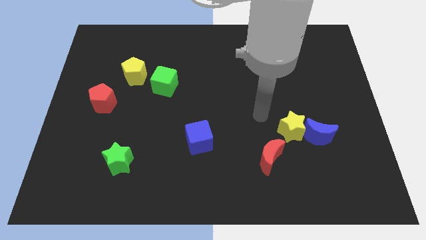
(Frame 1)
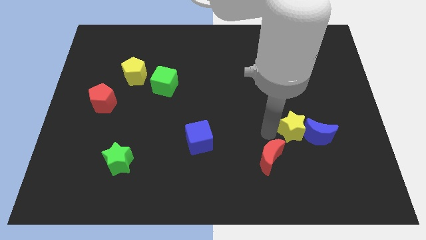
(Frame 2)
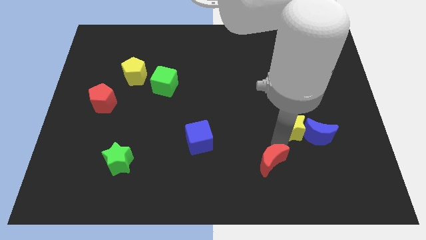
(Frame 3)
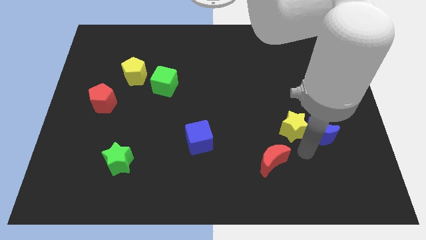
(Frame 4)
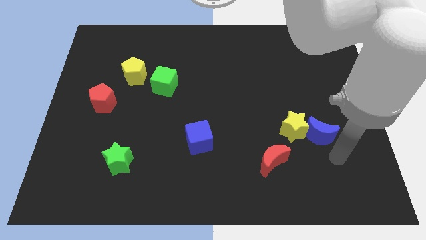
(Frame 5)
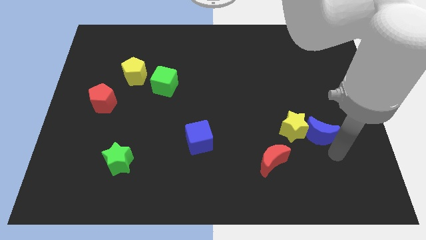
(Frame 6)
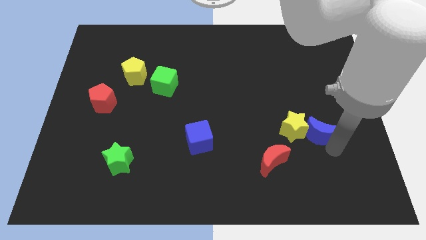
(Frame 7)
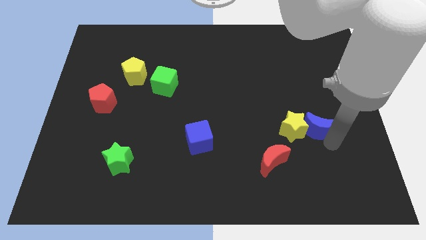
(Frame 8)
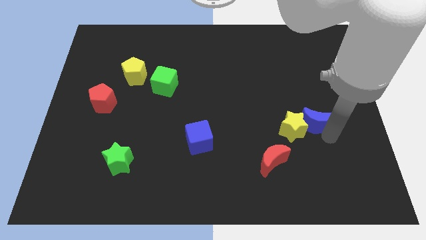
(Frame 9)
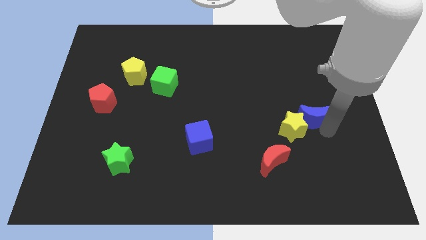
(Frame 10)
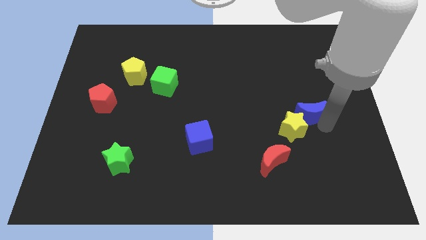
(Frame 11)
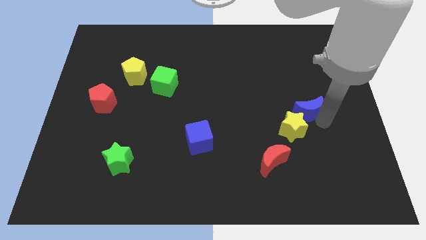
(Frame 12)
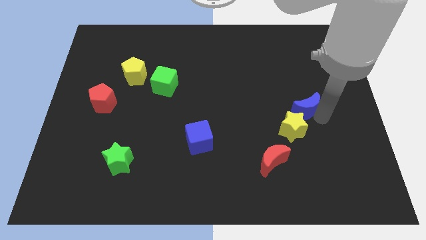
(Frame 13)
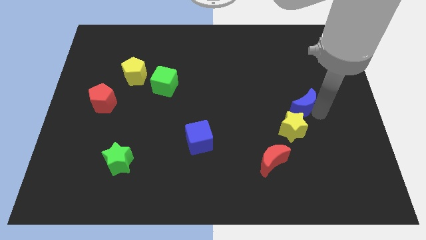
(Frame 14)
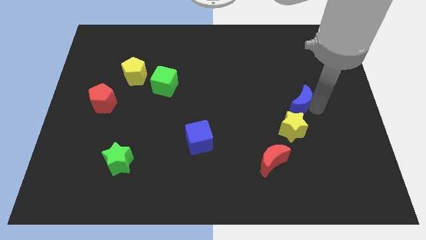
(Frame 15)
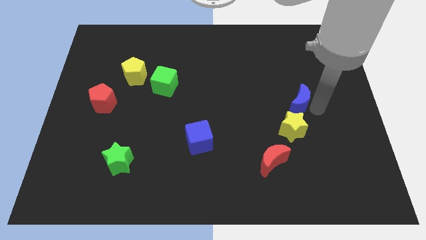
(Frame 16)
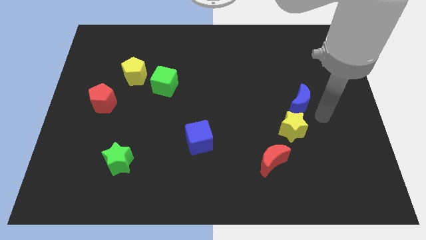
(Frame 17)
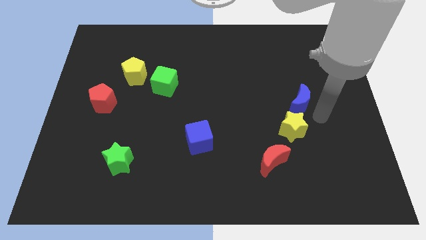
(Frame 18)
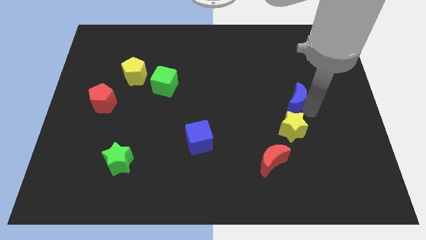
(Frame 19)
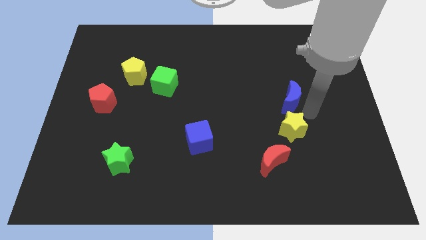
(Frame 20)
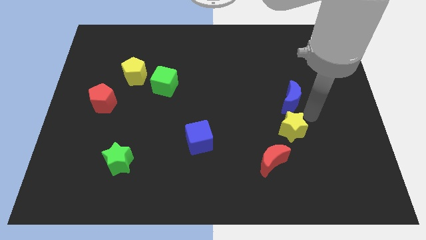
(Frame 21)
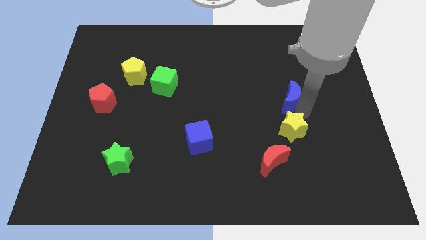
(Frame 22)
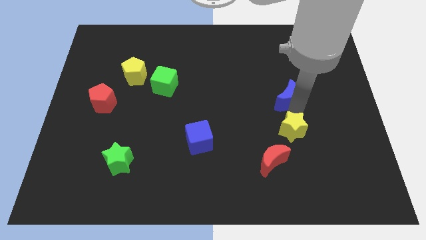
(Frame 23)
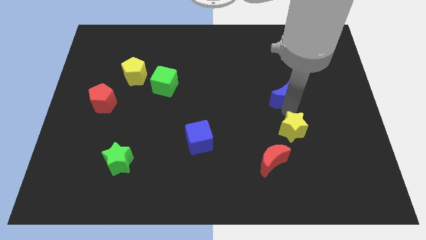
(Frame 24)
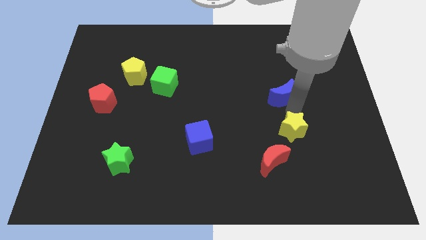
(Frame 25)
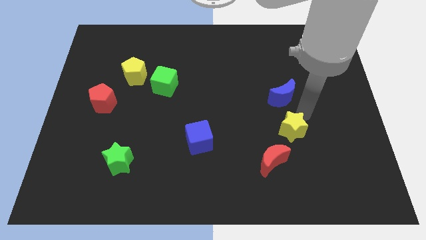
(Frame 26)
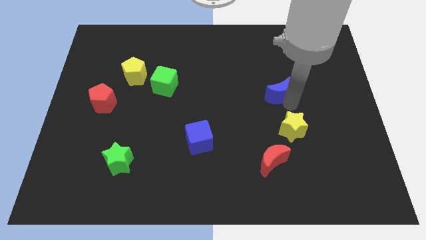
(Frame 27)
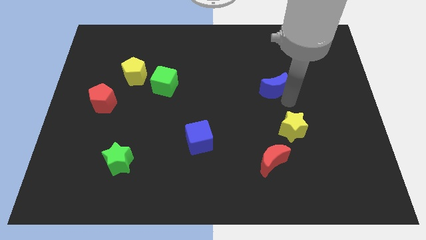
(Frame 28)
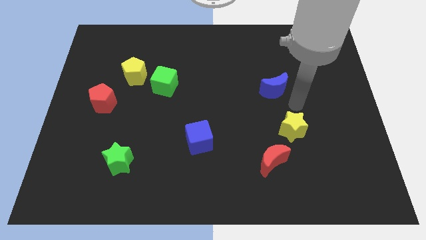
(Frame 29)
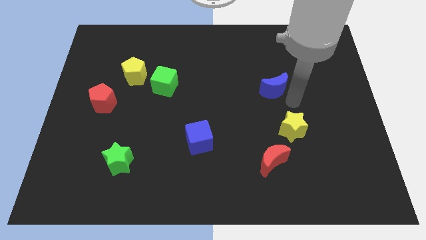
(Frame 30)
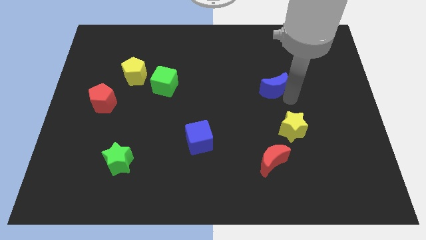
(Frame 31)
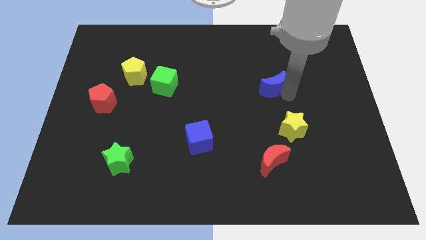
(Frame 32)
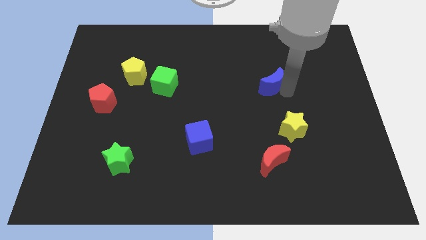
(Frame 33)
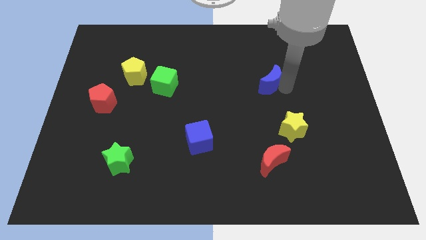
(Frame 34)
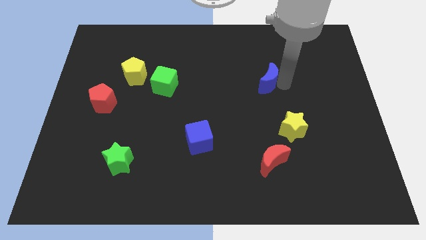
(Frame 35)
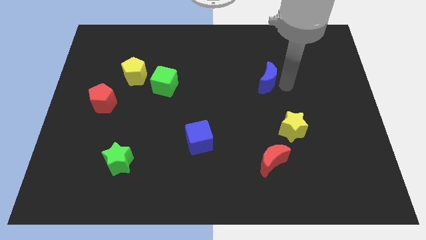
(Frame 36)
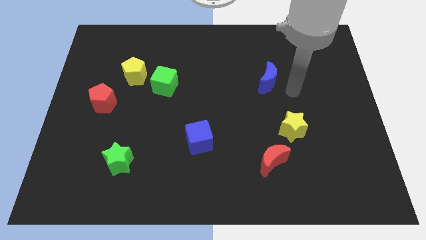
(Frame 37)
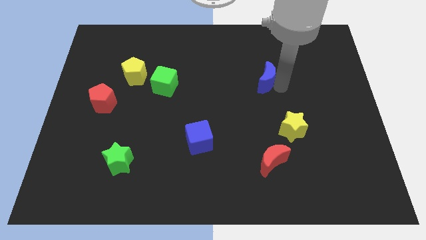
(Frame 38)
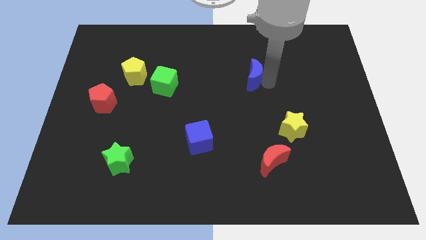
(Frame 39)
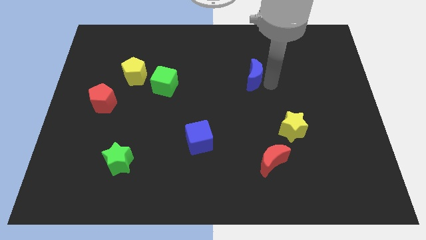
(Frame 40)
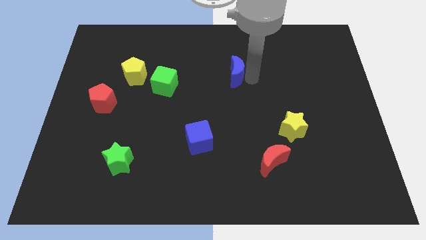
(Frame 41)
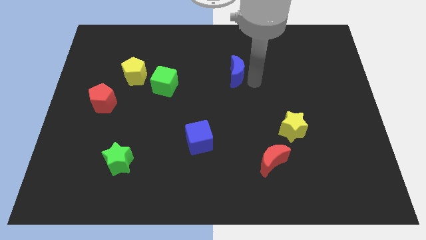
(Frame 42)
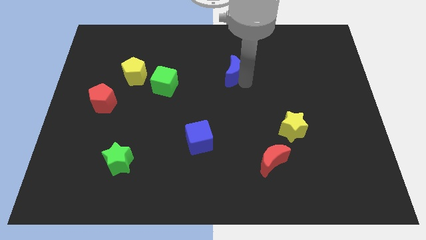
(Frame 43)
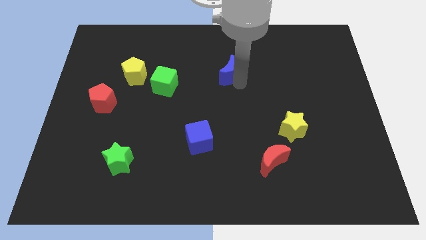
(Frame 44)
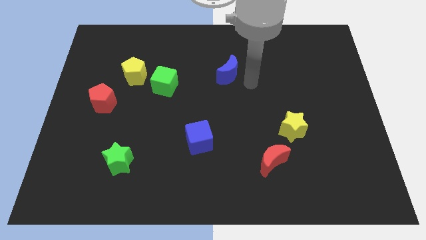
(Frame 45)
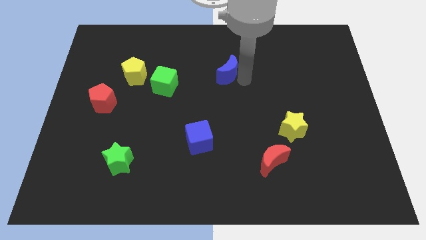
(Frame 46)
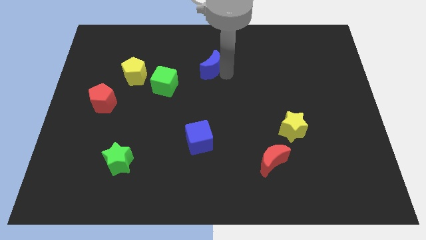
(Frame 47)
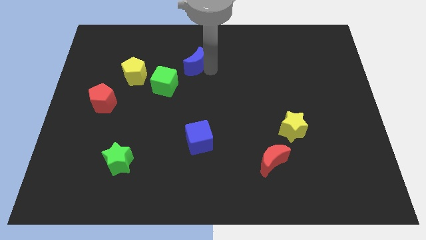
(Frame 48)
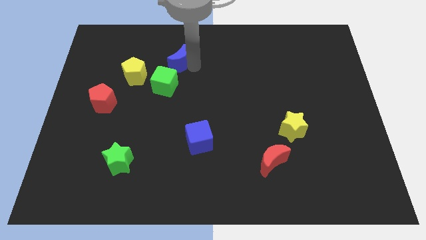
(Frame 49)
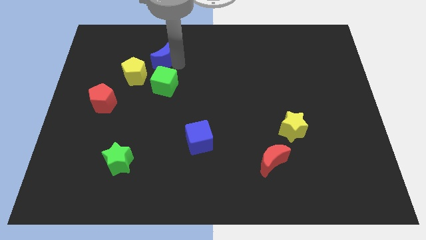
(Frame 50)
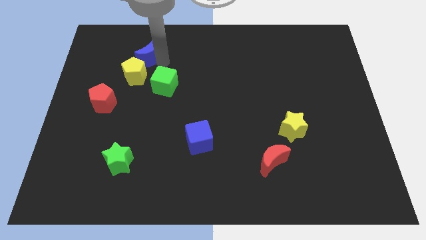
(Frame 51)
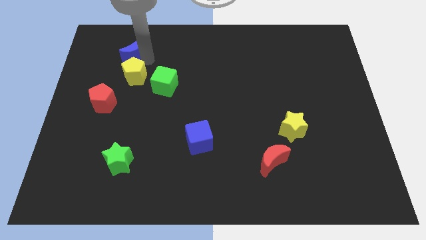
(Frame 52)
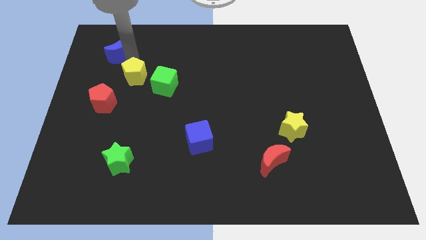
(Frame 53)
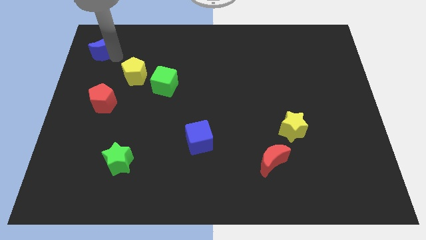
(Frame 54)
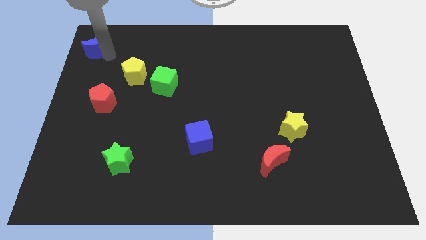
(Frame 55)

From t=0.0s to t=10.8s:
move the blue moon to the top left of the board
